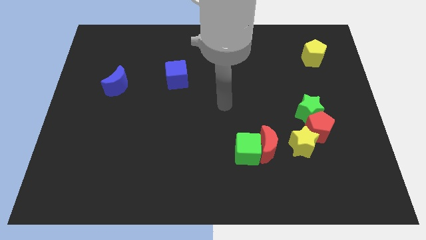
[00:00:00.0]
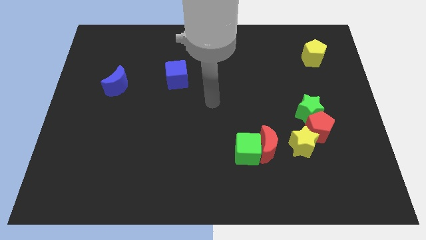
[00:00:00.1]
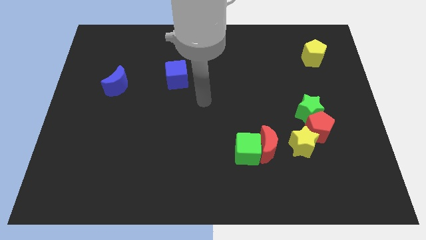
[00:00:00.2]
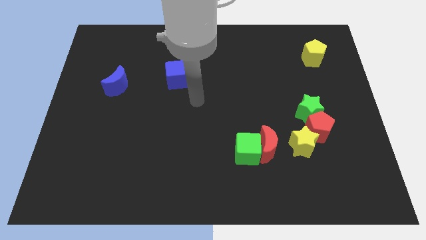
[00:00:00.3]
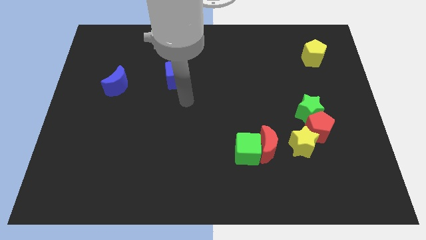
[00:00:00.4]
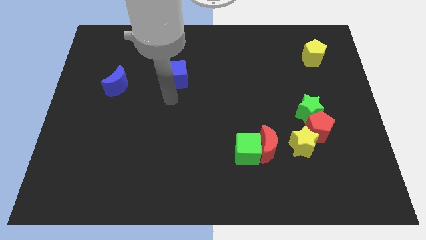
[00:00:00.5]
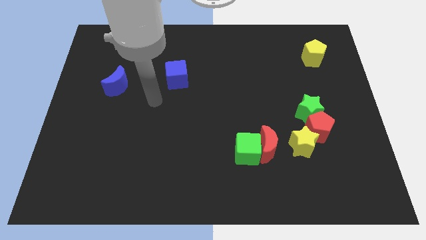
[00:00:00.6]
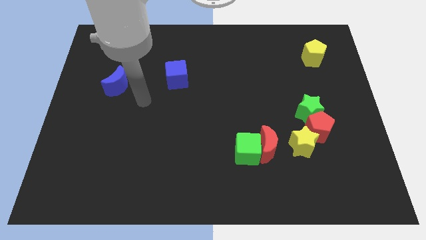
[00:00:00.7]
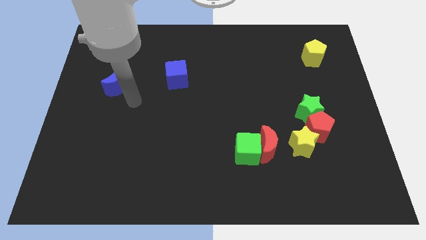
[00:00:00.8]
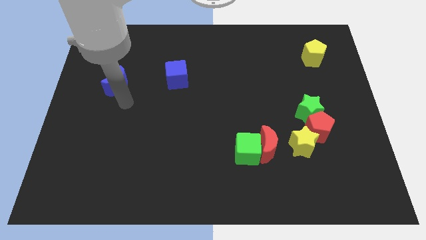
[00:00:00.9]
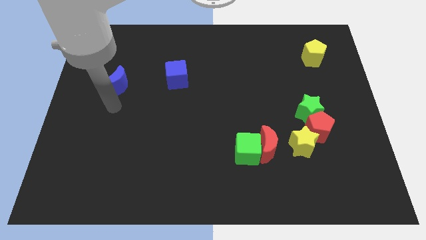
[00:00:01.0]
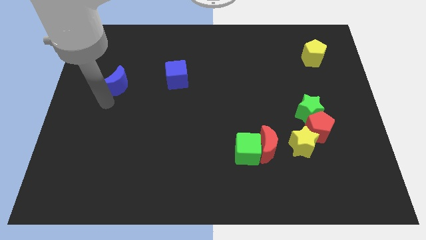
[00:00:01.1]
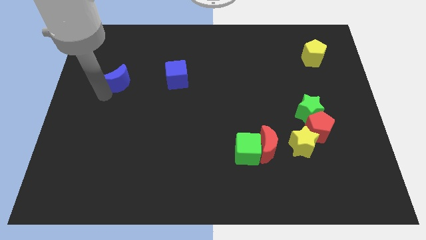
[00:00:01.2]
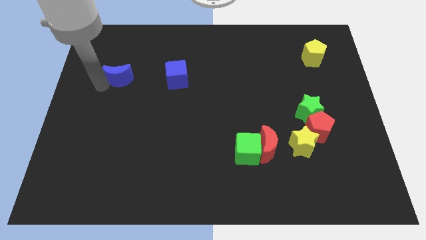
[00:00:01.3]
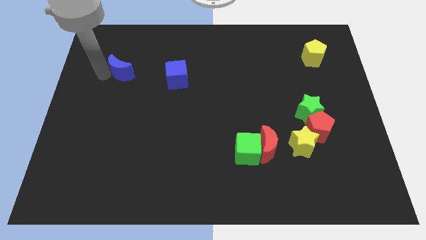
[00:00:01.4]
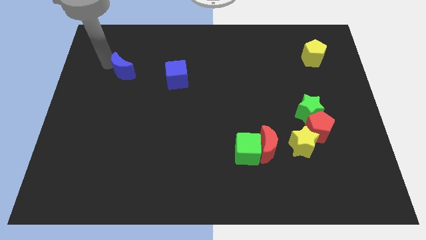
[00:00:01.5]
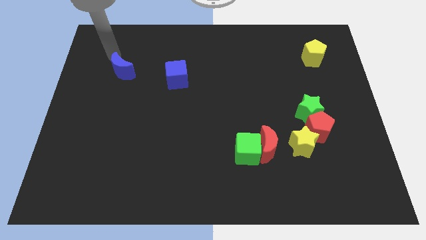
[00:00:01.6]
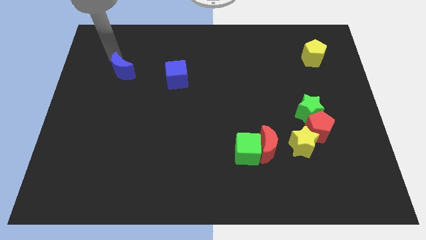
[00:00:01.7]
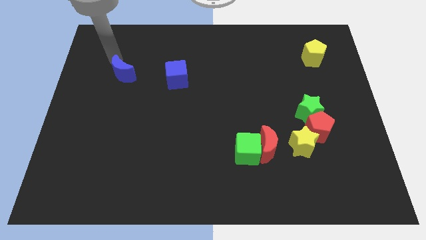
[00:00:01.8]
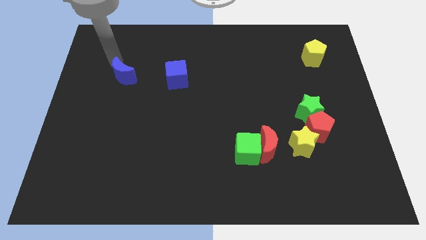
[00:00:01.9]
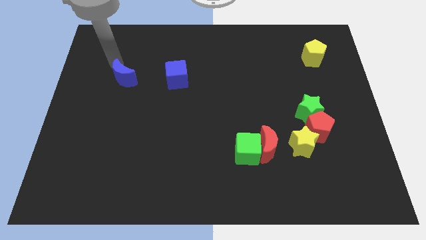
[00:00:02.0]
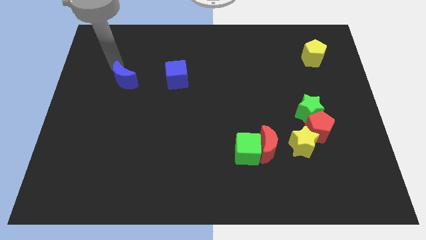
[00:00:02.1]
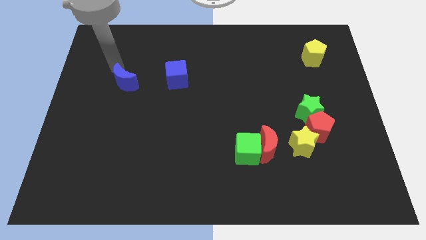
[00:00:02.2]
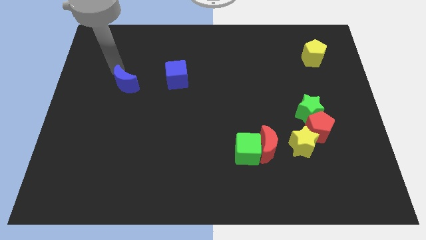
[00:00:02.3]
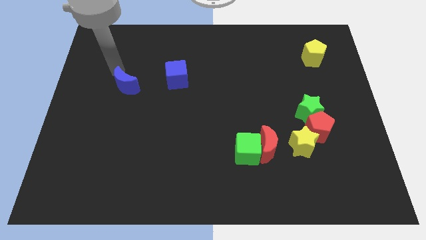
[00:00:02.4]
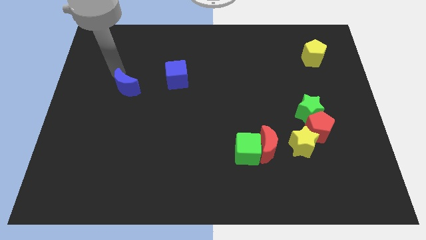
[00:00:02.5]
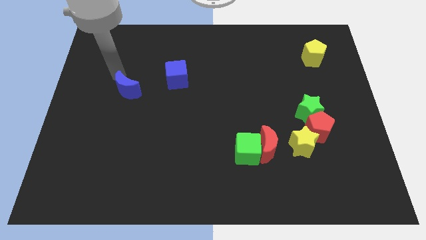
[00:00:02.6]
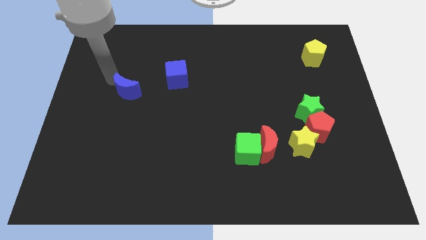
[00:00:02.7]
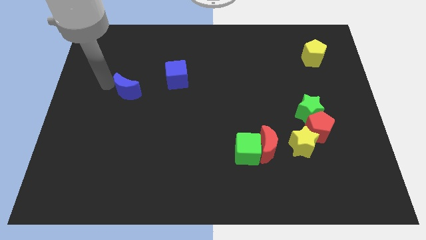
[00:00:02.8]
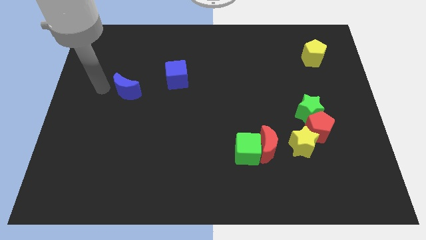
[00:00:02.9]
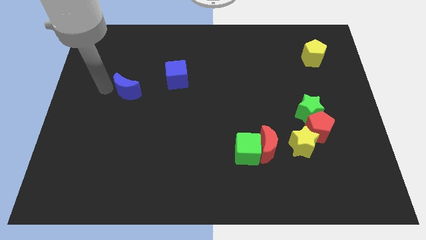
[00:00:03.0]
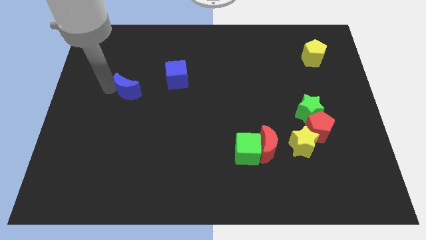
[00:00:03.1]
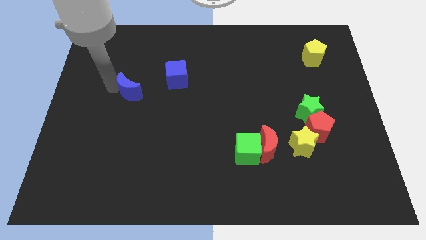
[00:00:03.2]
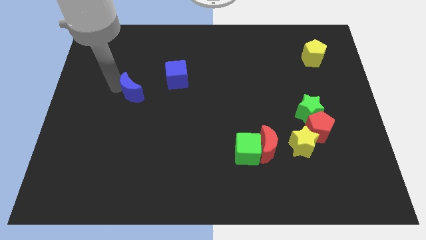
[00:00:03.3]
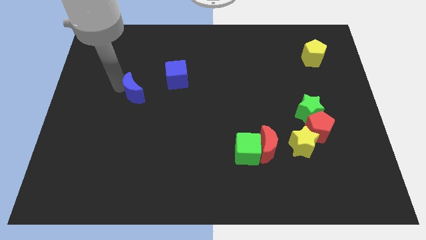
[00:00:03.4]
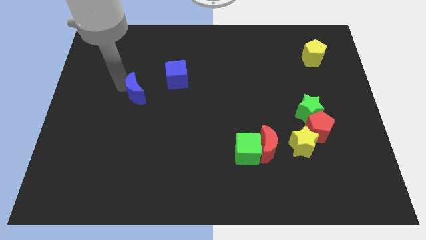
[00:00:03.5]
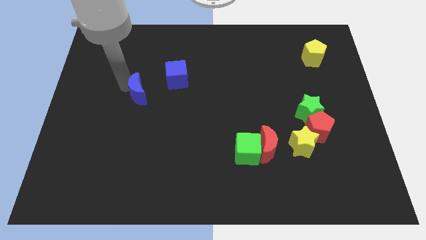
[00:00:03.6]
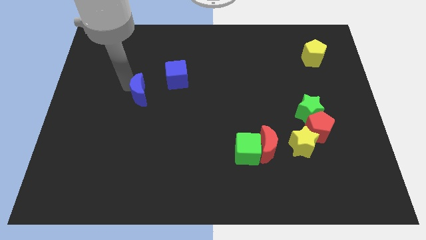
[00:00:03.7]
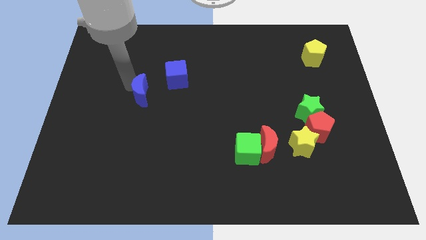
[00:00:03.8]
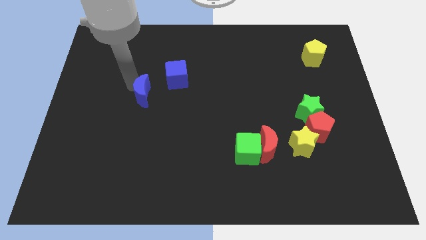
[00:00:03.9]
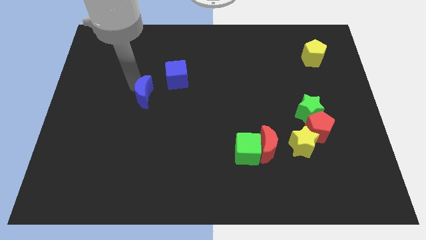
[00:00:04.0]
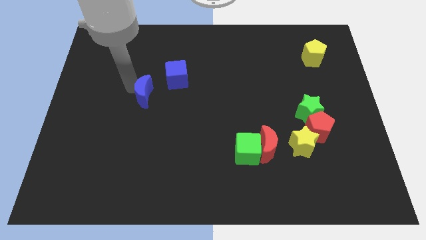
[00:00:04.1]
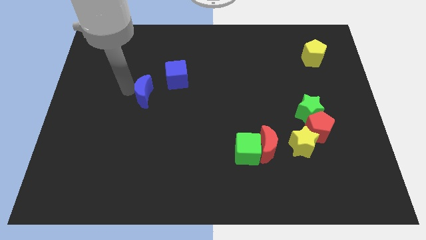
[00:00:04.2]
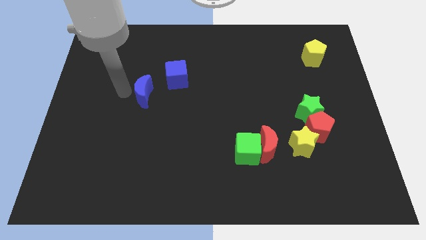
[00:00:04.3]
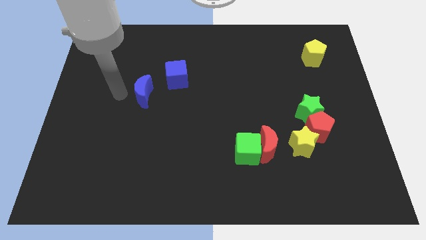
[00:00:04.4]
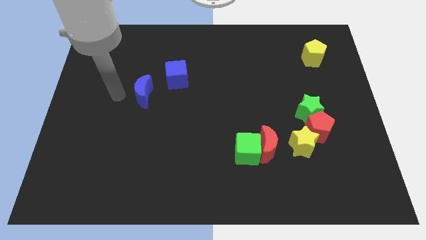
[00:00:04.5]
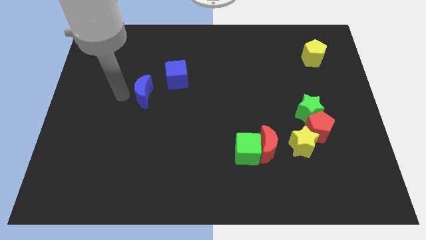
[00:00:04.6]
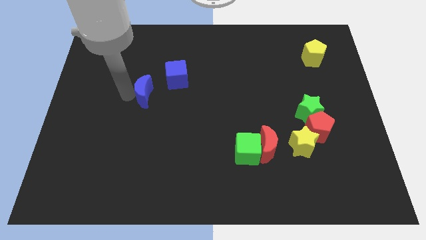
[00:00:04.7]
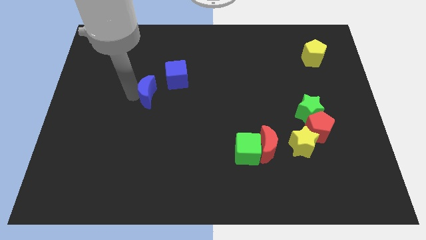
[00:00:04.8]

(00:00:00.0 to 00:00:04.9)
move the blue moon a little bit right

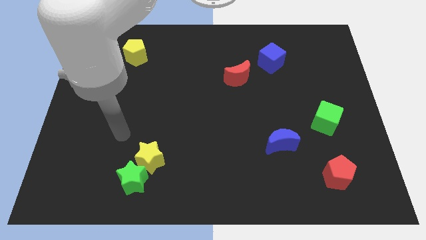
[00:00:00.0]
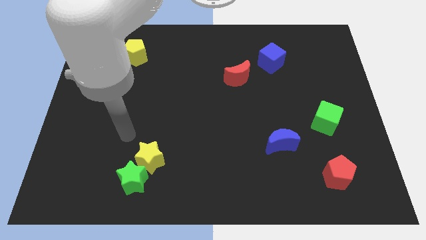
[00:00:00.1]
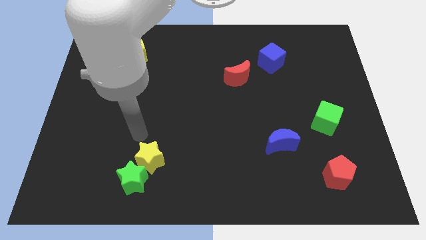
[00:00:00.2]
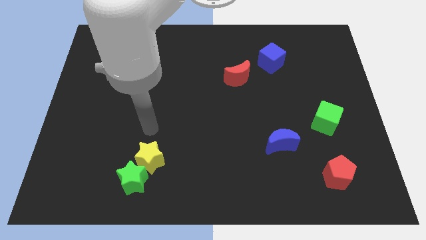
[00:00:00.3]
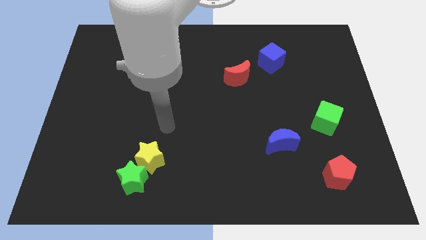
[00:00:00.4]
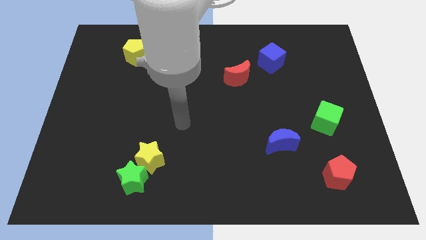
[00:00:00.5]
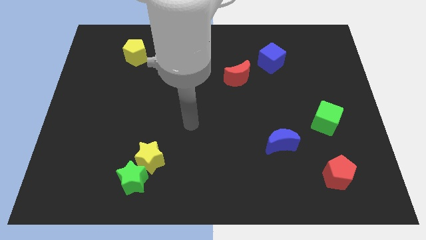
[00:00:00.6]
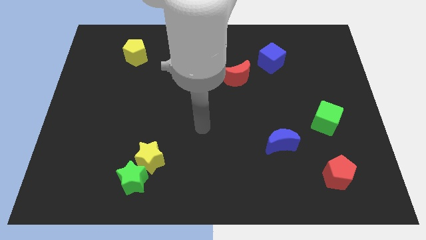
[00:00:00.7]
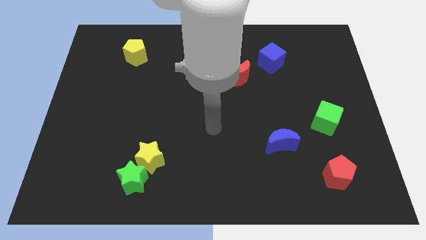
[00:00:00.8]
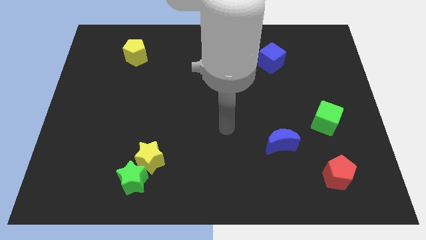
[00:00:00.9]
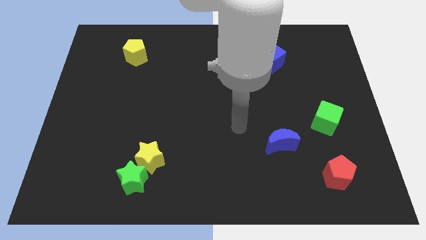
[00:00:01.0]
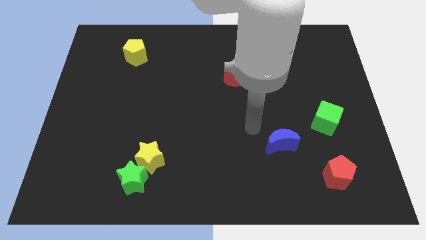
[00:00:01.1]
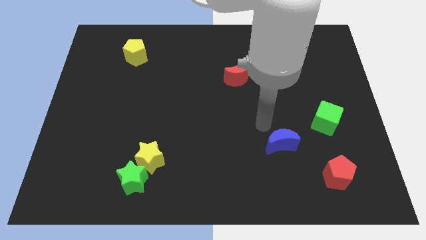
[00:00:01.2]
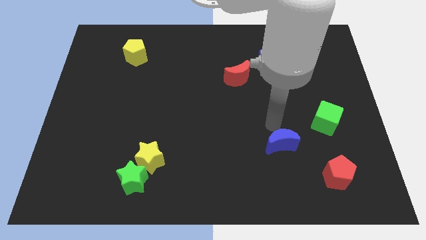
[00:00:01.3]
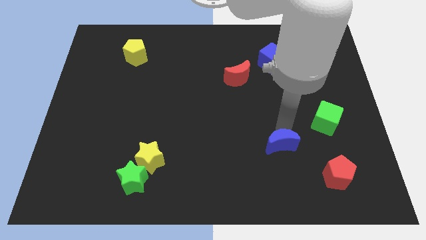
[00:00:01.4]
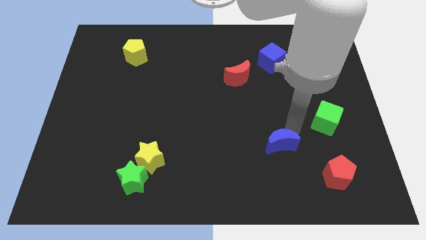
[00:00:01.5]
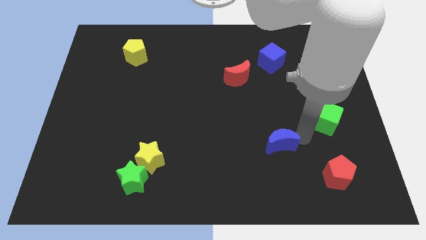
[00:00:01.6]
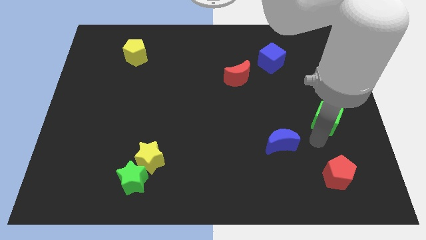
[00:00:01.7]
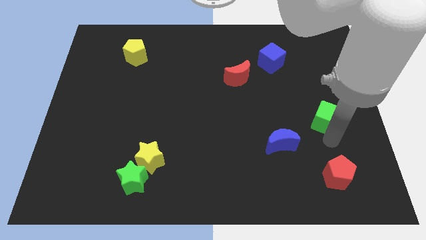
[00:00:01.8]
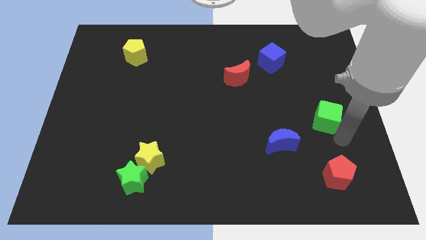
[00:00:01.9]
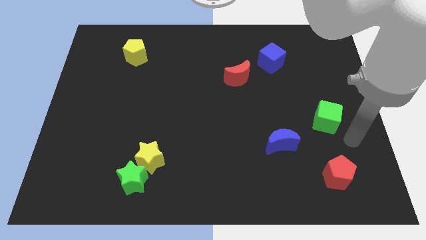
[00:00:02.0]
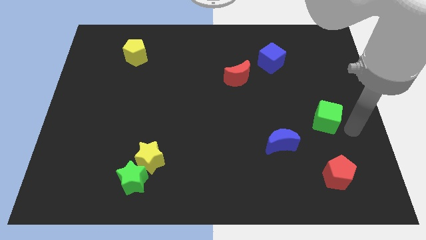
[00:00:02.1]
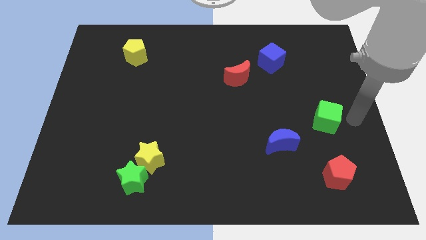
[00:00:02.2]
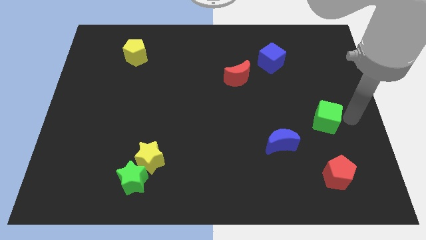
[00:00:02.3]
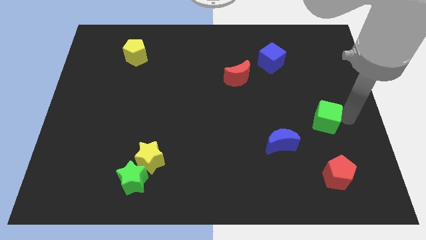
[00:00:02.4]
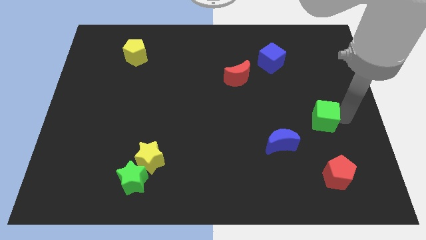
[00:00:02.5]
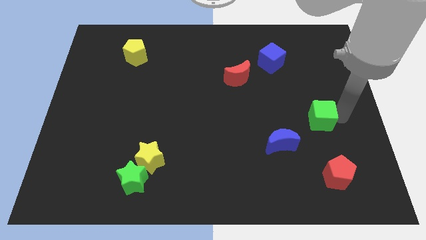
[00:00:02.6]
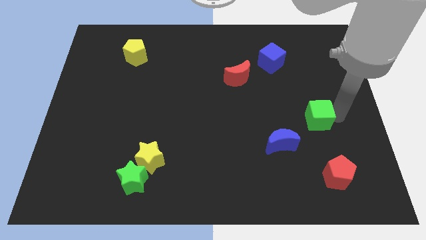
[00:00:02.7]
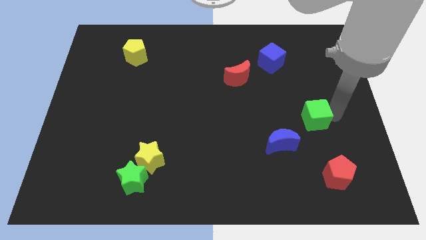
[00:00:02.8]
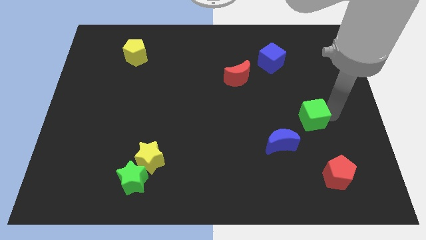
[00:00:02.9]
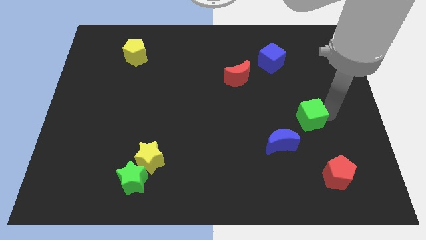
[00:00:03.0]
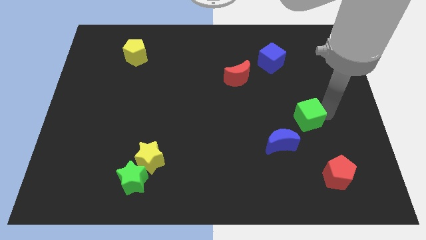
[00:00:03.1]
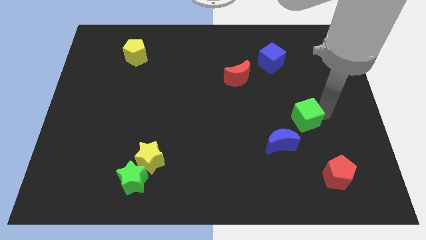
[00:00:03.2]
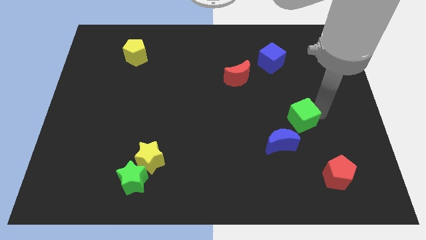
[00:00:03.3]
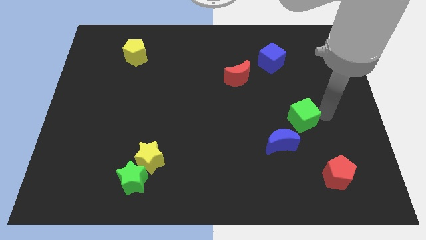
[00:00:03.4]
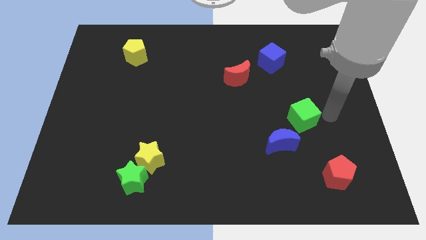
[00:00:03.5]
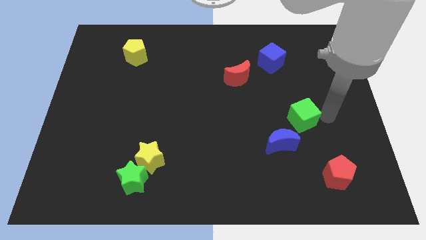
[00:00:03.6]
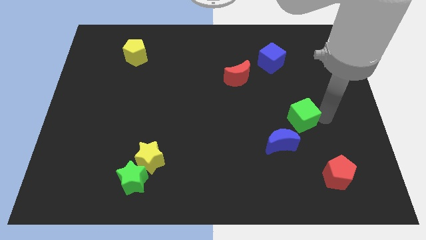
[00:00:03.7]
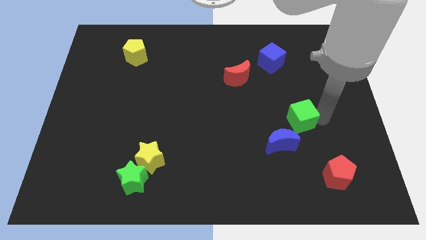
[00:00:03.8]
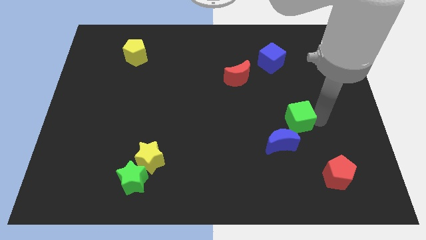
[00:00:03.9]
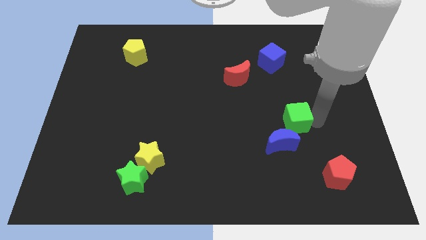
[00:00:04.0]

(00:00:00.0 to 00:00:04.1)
slightly slide the green cube to the left
